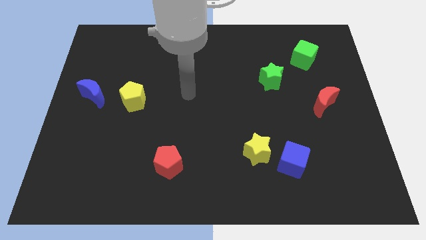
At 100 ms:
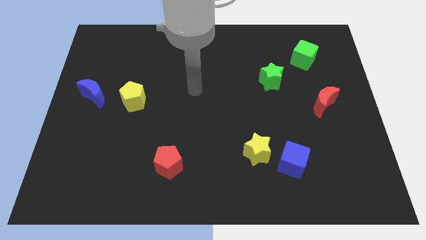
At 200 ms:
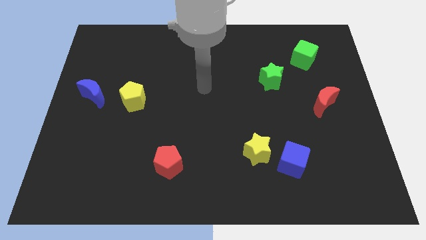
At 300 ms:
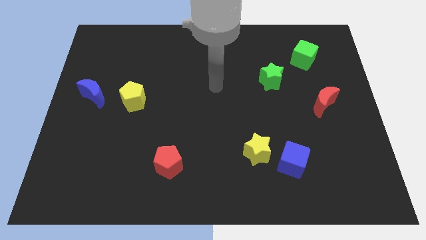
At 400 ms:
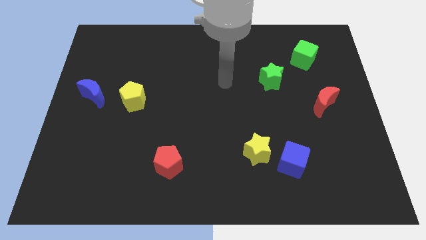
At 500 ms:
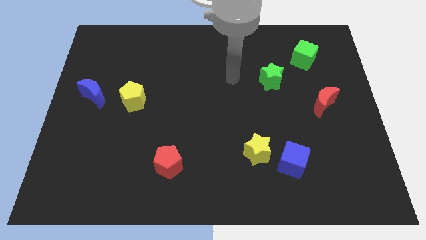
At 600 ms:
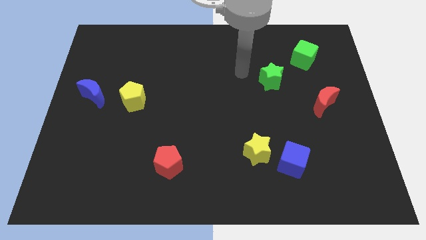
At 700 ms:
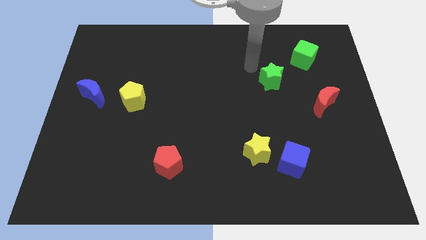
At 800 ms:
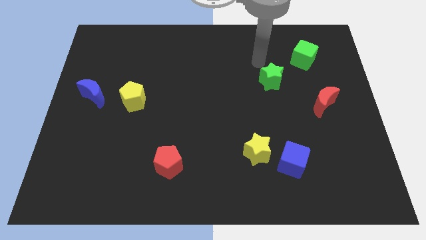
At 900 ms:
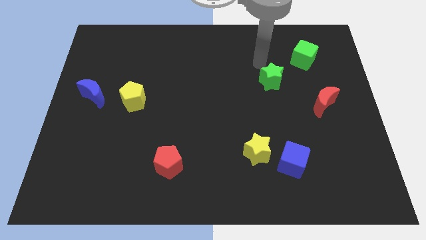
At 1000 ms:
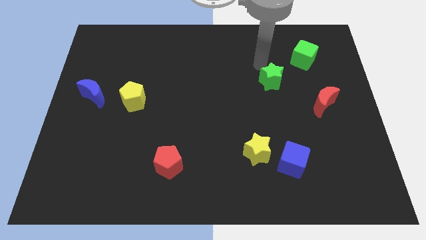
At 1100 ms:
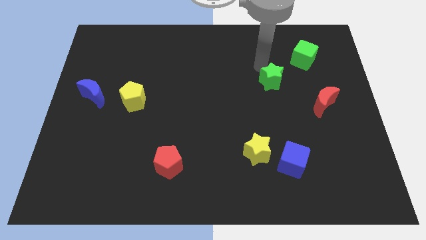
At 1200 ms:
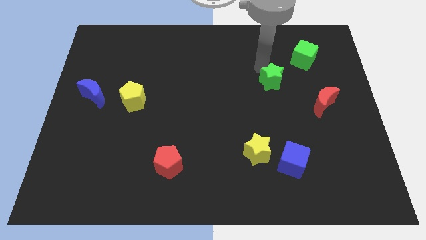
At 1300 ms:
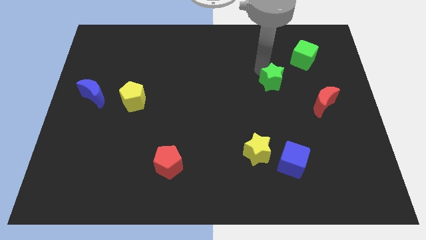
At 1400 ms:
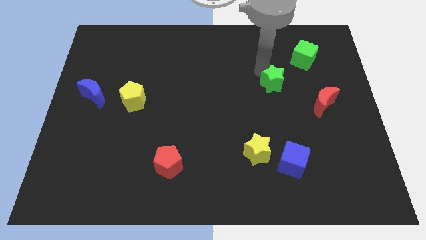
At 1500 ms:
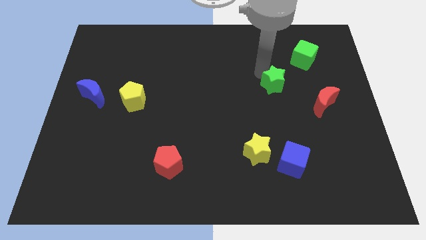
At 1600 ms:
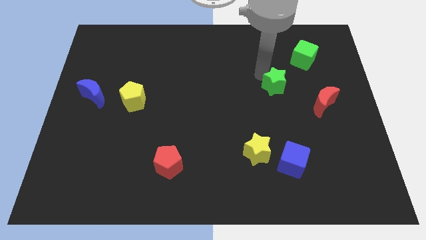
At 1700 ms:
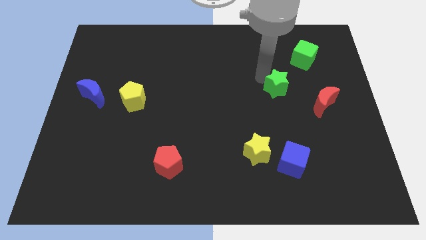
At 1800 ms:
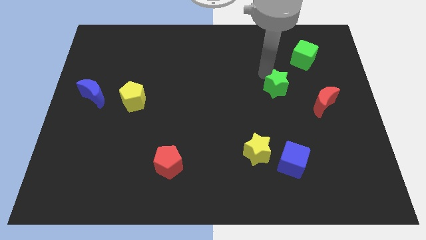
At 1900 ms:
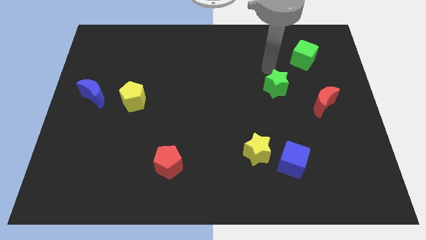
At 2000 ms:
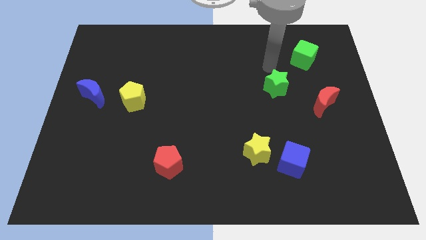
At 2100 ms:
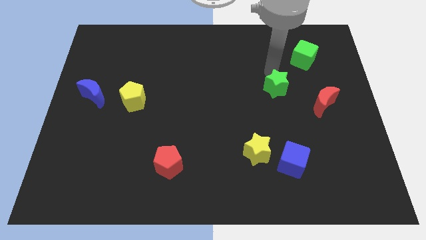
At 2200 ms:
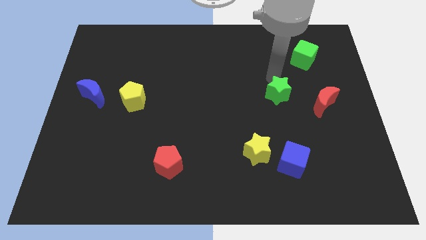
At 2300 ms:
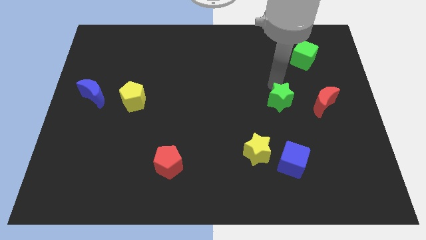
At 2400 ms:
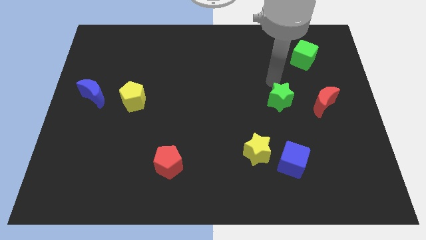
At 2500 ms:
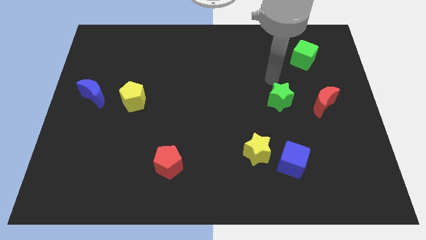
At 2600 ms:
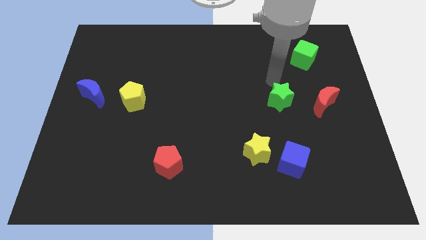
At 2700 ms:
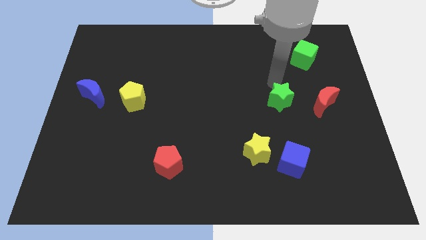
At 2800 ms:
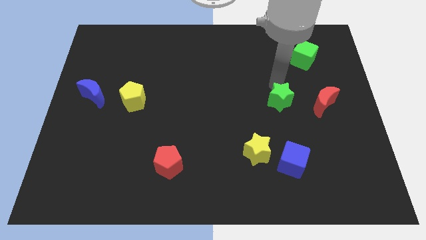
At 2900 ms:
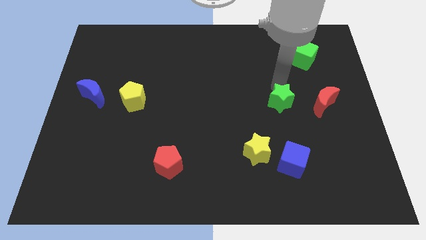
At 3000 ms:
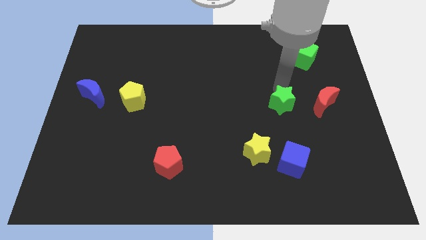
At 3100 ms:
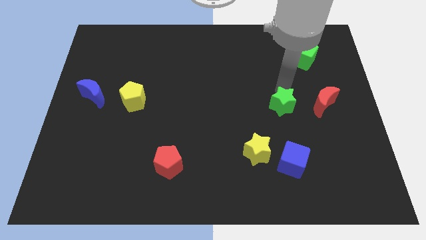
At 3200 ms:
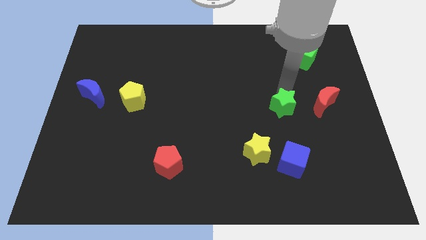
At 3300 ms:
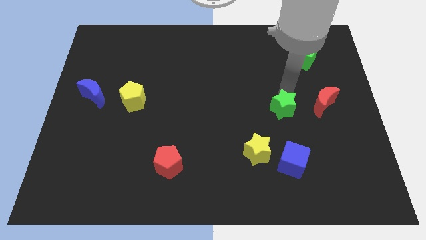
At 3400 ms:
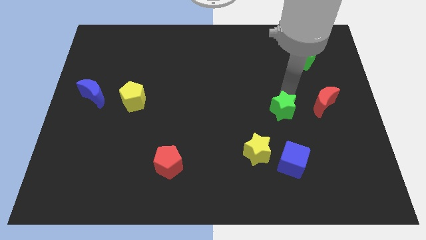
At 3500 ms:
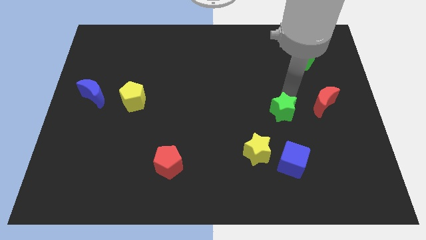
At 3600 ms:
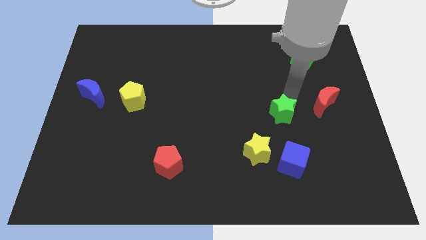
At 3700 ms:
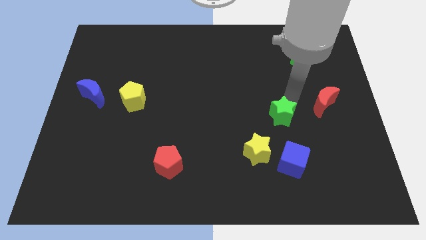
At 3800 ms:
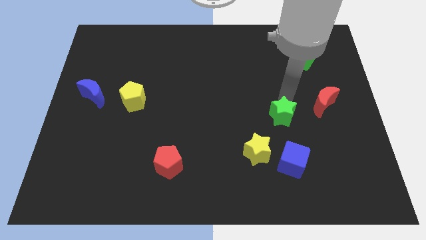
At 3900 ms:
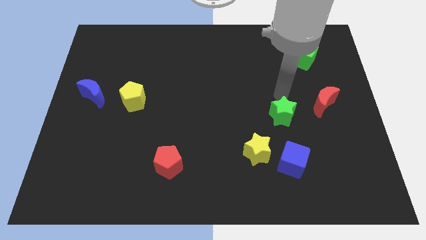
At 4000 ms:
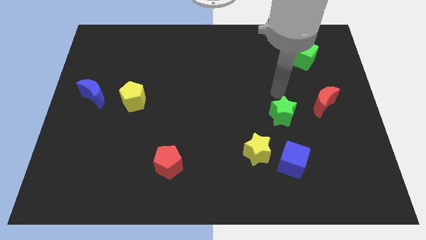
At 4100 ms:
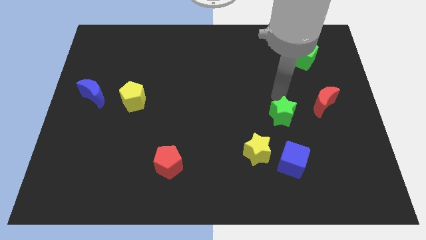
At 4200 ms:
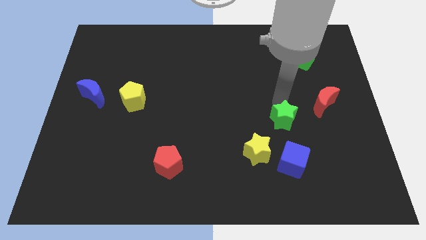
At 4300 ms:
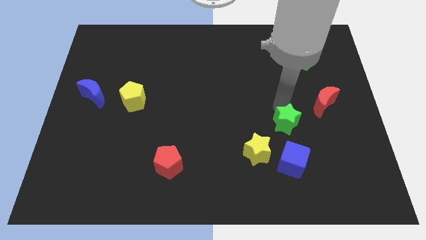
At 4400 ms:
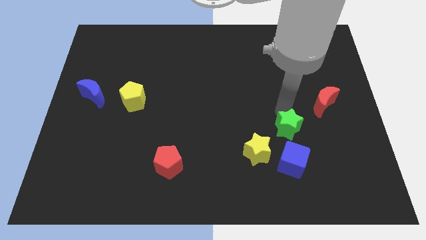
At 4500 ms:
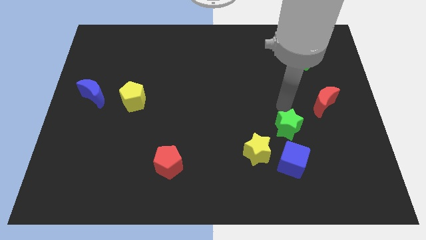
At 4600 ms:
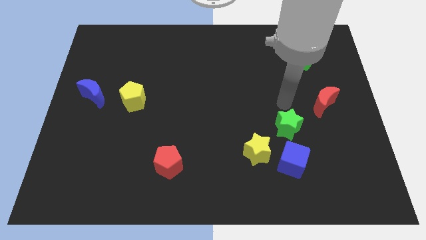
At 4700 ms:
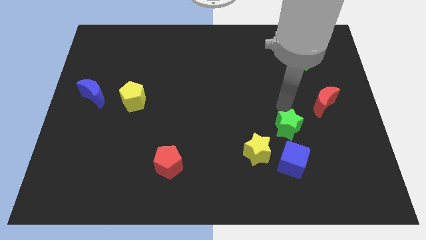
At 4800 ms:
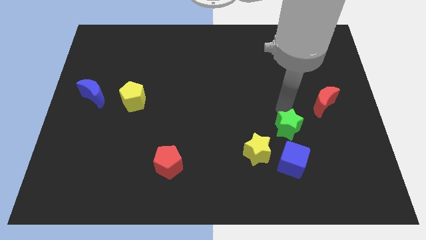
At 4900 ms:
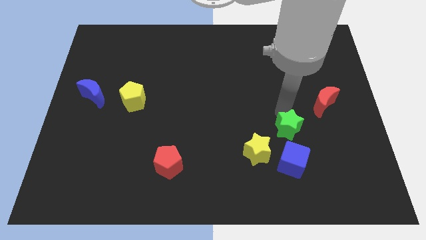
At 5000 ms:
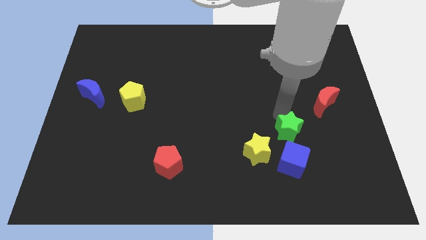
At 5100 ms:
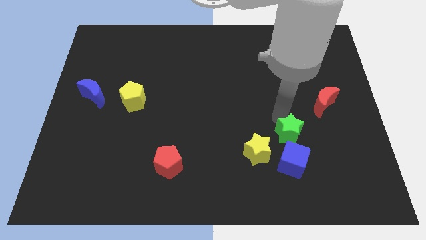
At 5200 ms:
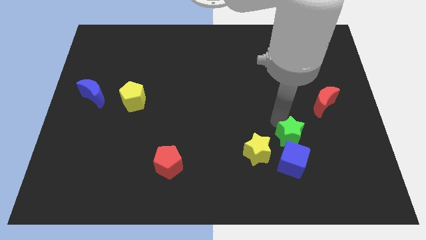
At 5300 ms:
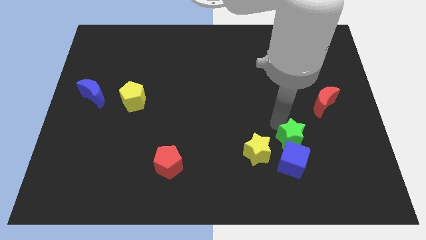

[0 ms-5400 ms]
slide the green star towards the blue cube

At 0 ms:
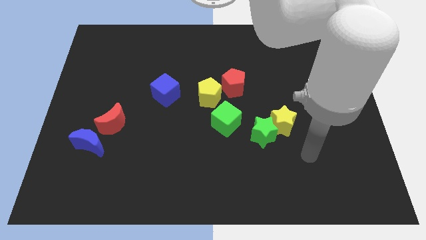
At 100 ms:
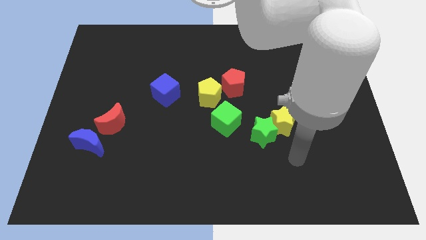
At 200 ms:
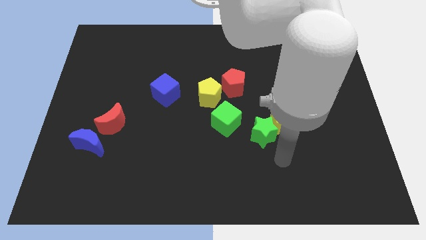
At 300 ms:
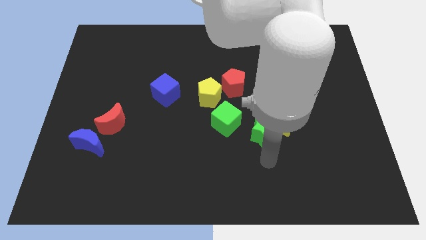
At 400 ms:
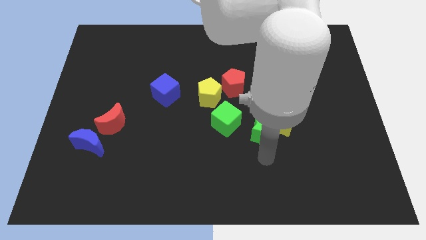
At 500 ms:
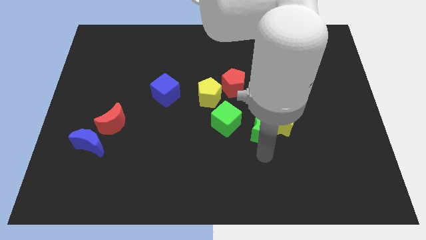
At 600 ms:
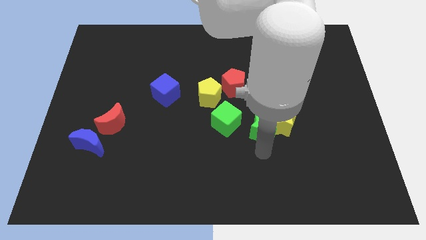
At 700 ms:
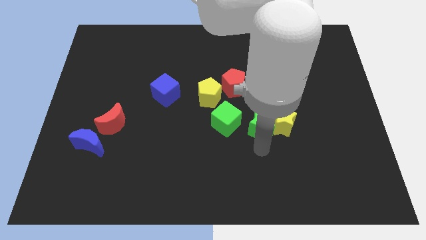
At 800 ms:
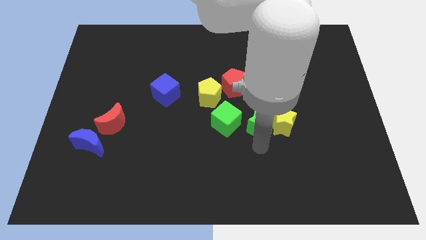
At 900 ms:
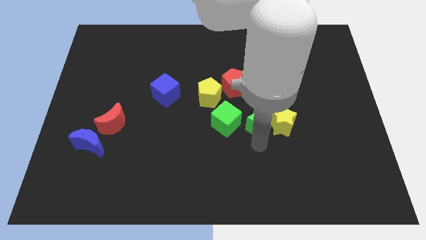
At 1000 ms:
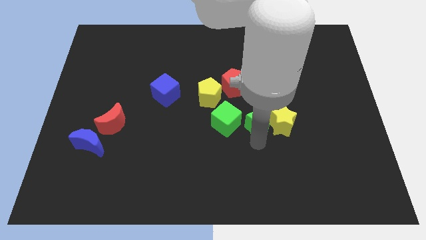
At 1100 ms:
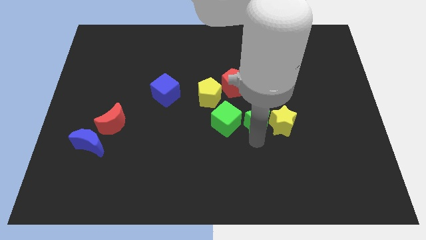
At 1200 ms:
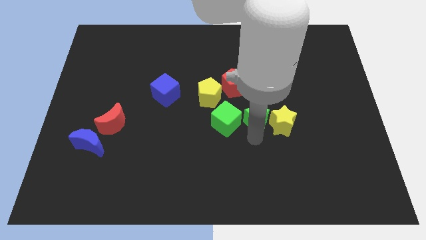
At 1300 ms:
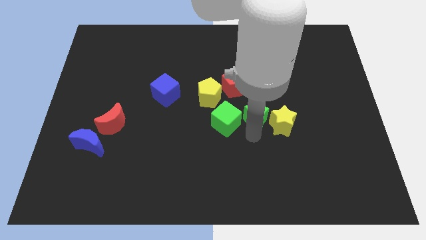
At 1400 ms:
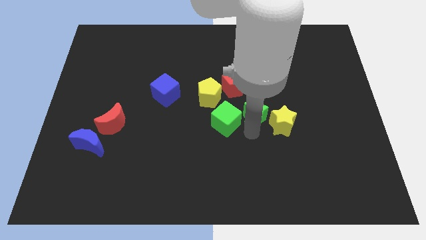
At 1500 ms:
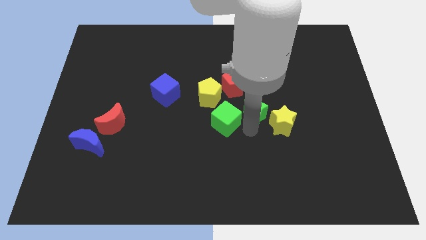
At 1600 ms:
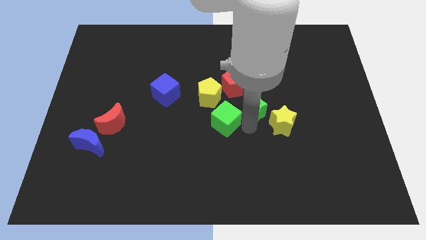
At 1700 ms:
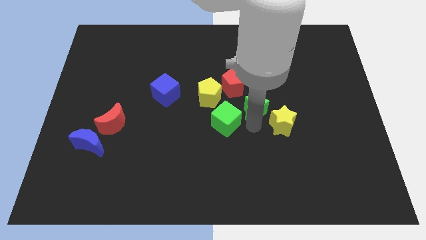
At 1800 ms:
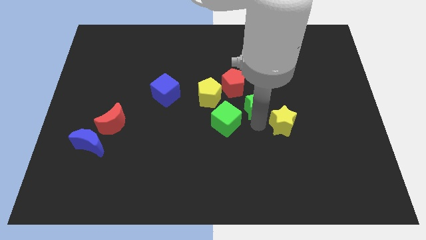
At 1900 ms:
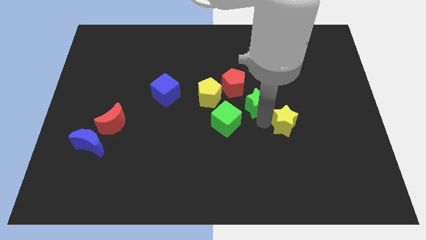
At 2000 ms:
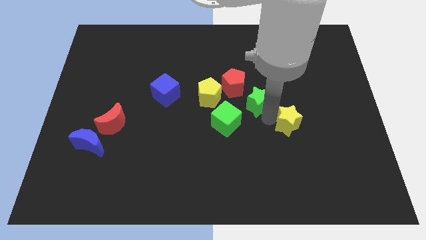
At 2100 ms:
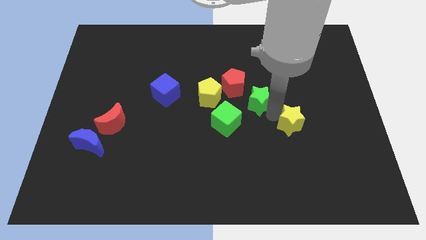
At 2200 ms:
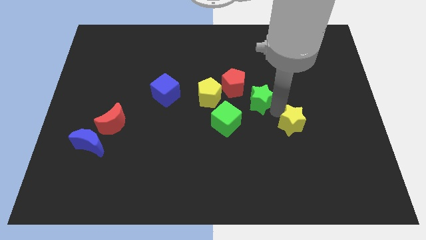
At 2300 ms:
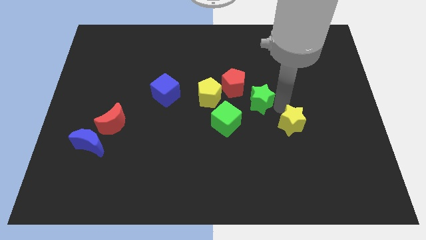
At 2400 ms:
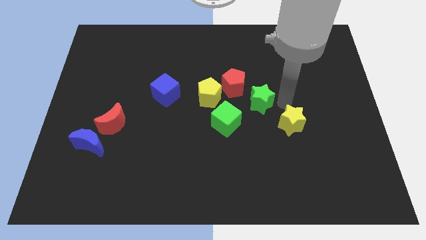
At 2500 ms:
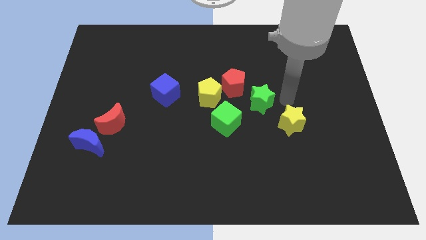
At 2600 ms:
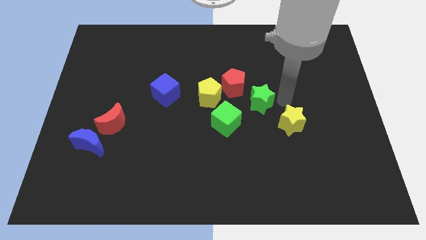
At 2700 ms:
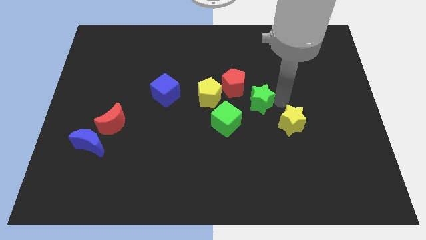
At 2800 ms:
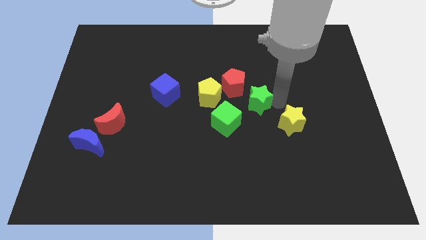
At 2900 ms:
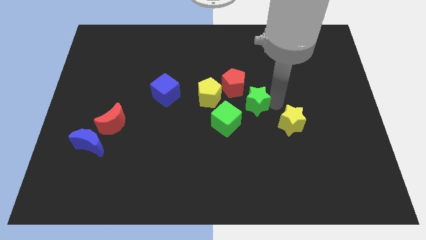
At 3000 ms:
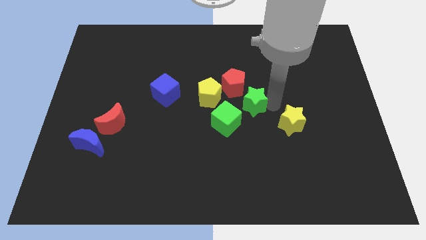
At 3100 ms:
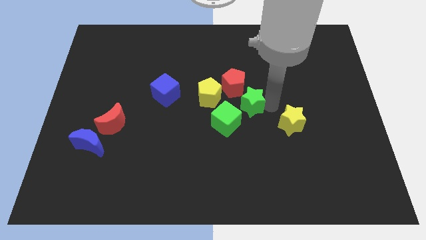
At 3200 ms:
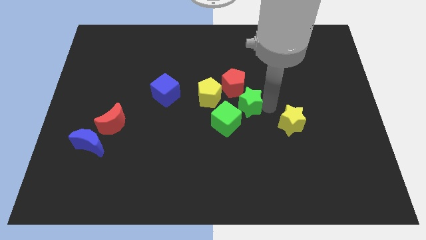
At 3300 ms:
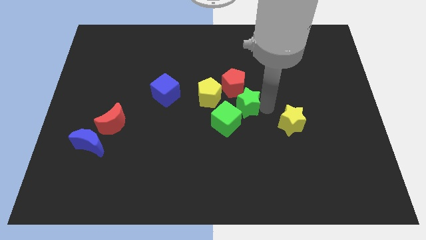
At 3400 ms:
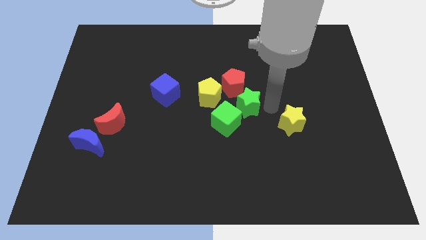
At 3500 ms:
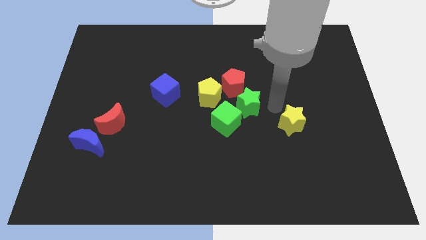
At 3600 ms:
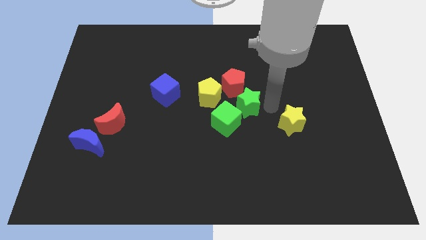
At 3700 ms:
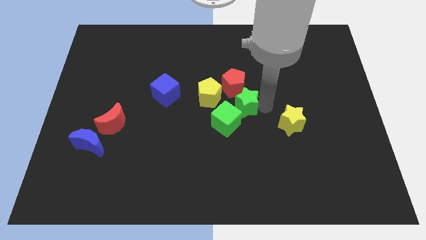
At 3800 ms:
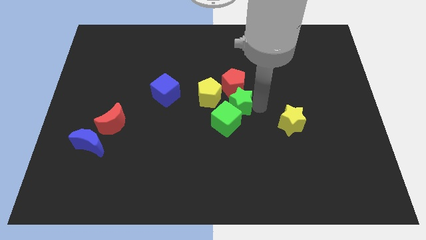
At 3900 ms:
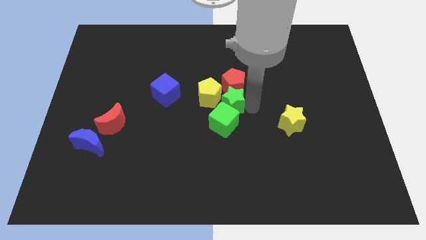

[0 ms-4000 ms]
push the green star to the yellow pentagon
